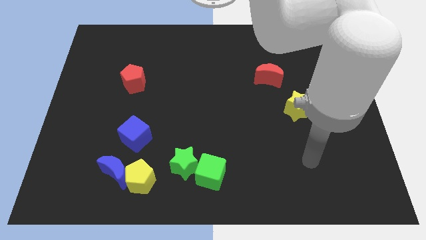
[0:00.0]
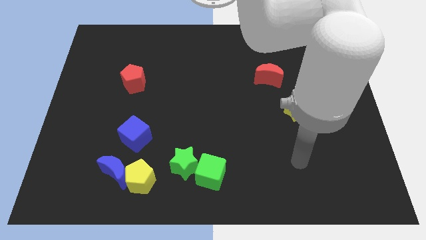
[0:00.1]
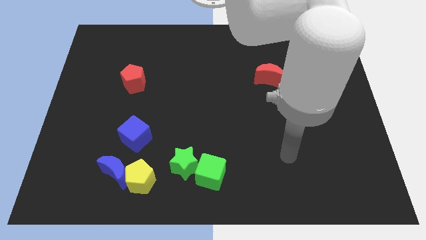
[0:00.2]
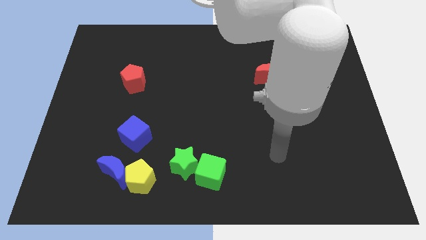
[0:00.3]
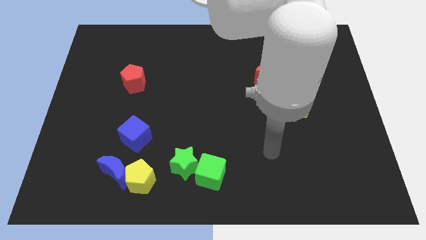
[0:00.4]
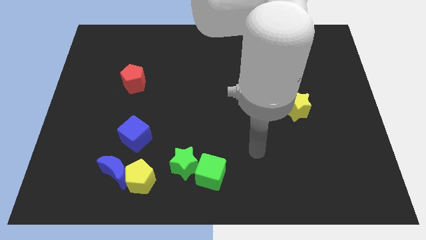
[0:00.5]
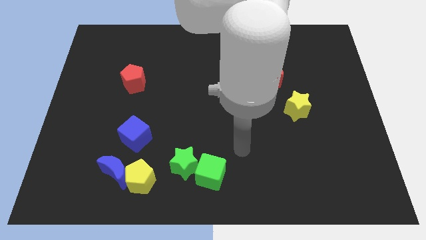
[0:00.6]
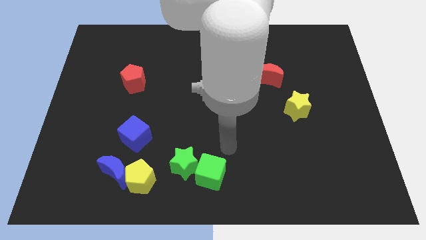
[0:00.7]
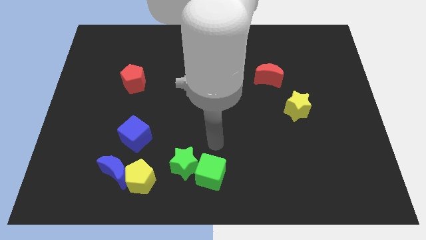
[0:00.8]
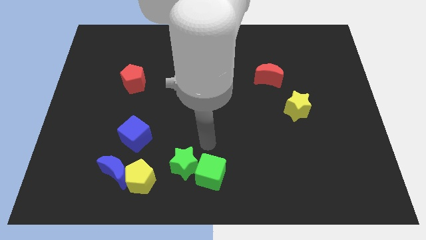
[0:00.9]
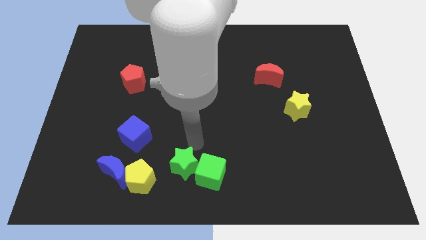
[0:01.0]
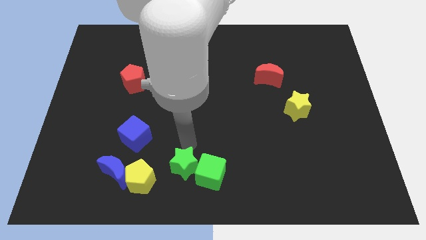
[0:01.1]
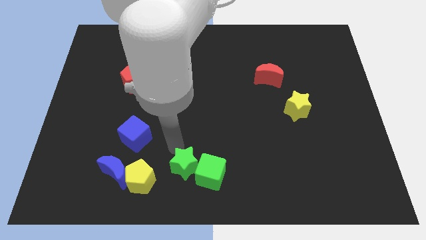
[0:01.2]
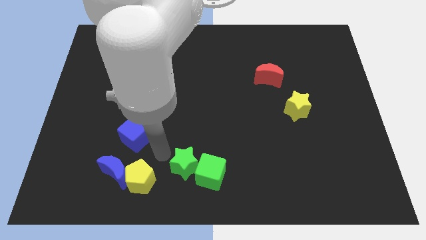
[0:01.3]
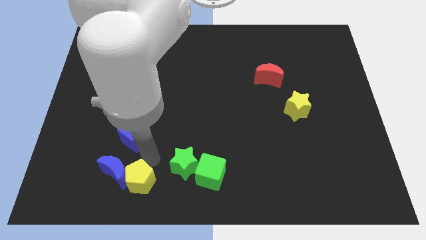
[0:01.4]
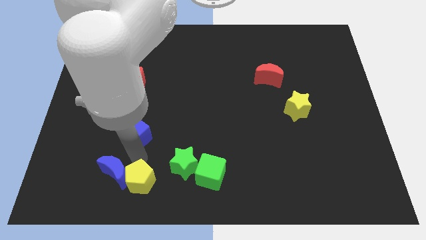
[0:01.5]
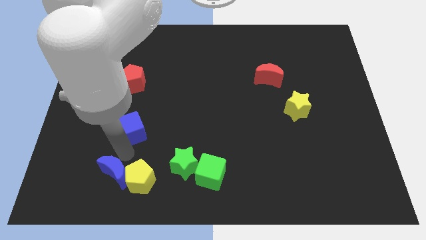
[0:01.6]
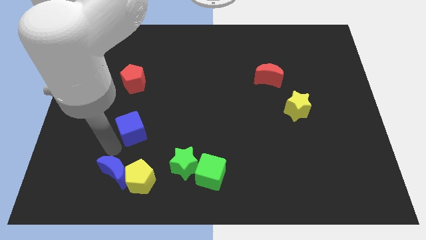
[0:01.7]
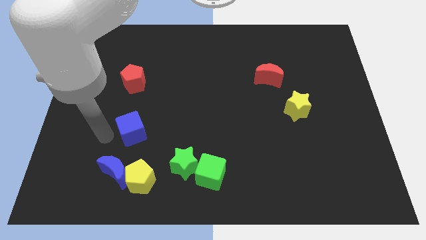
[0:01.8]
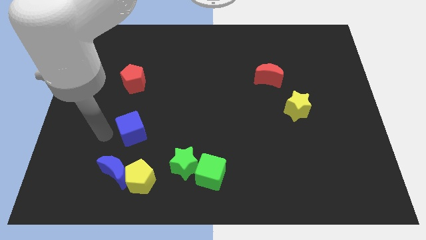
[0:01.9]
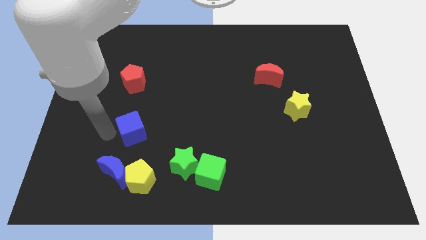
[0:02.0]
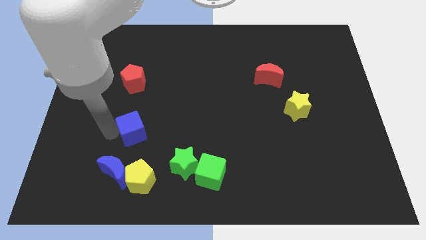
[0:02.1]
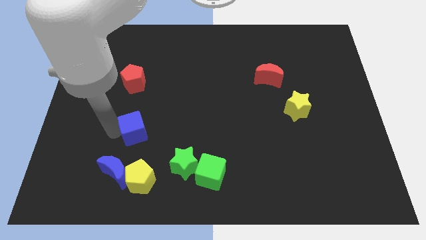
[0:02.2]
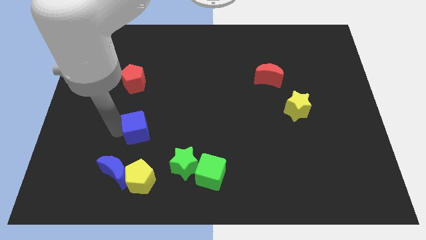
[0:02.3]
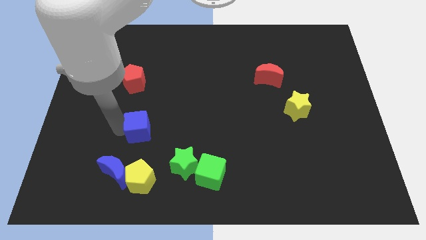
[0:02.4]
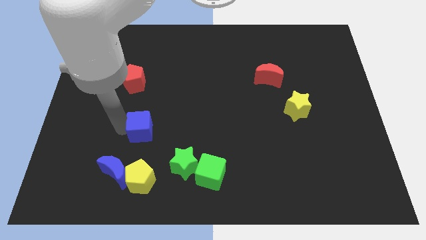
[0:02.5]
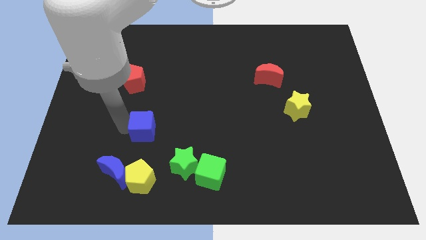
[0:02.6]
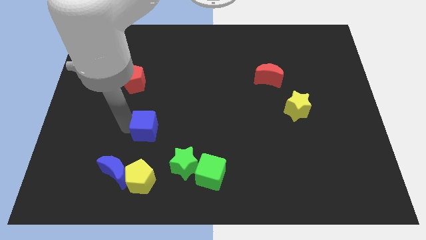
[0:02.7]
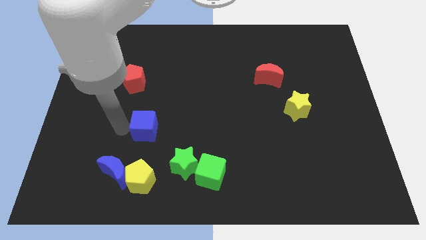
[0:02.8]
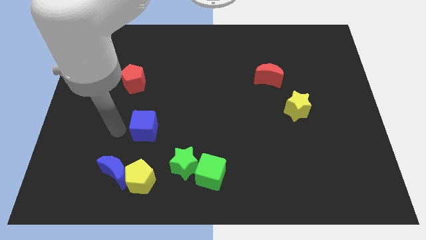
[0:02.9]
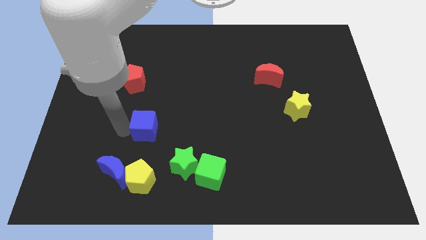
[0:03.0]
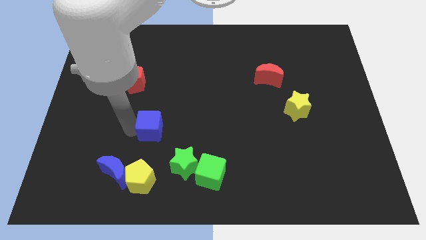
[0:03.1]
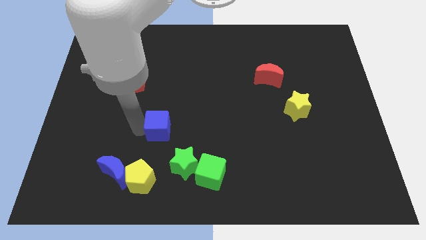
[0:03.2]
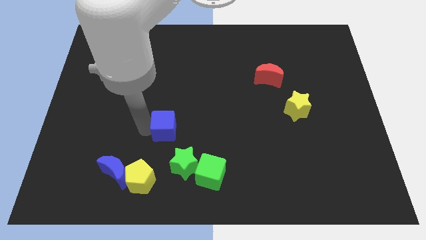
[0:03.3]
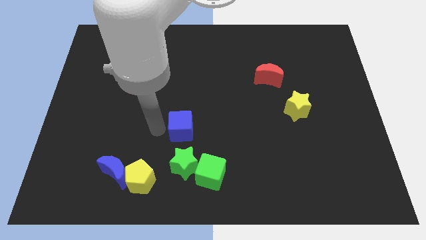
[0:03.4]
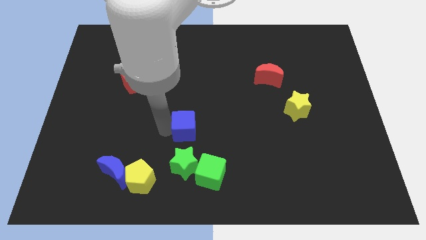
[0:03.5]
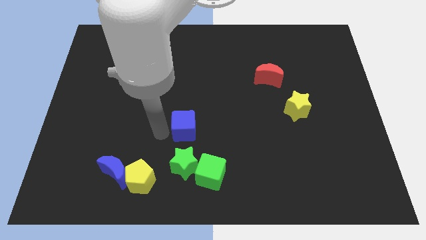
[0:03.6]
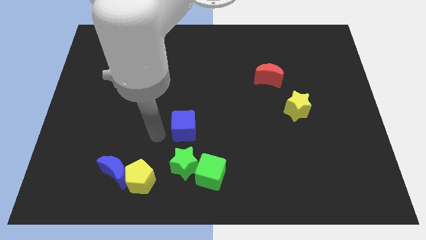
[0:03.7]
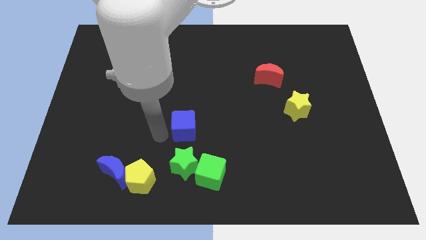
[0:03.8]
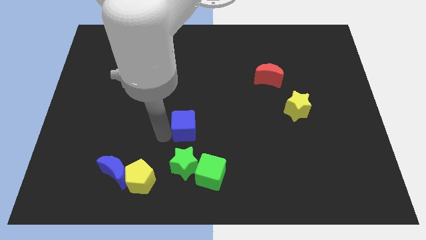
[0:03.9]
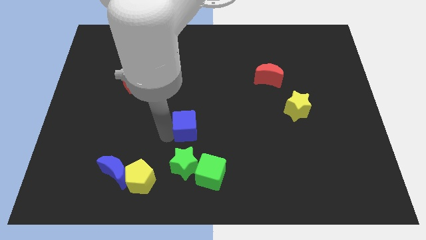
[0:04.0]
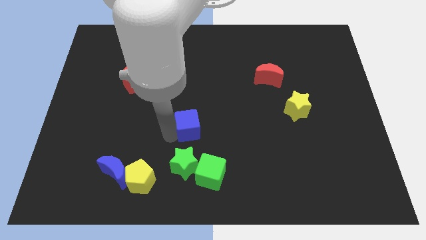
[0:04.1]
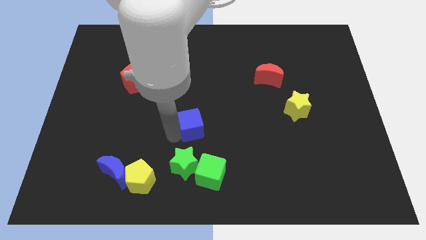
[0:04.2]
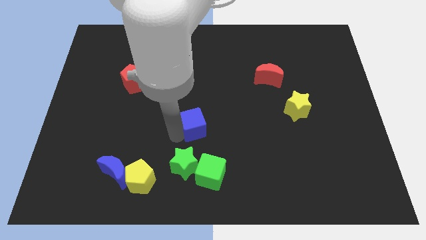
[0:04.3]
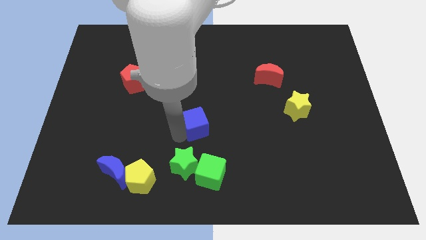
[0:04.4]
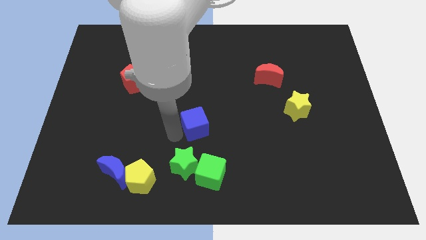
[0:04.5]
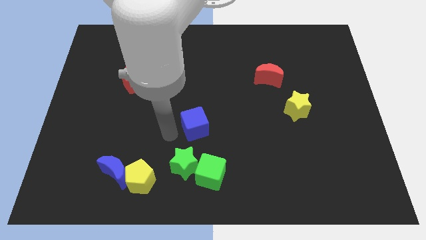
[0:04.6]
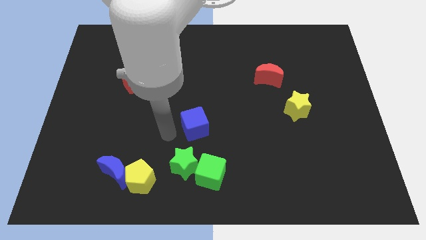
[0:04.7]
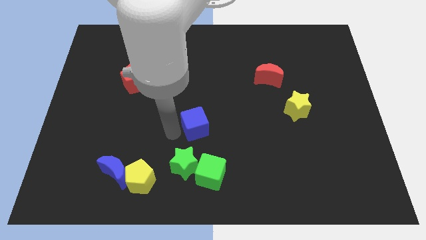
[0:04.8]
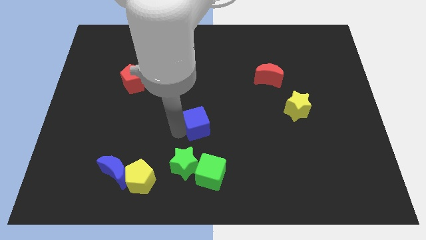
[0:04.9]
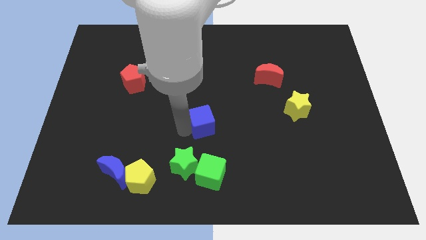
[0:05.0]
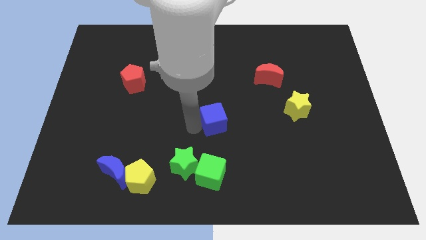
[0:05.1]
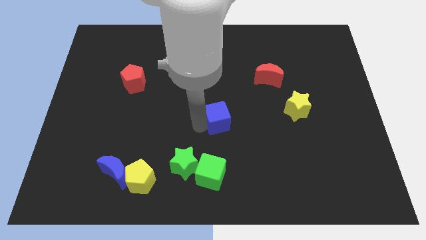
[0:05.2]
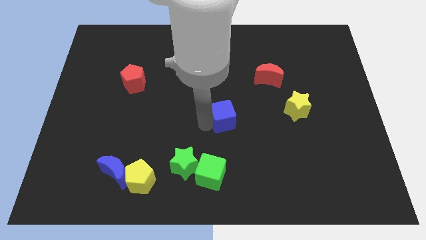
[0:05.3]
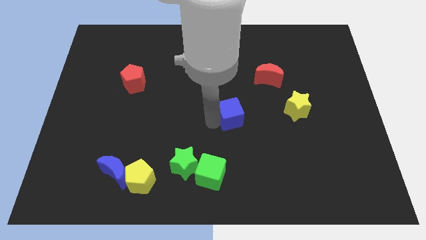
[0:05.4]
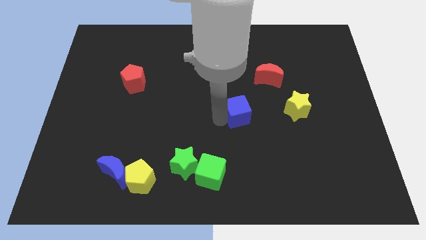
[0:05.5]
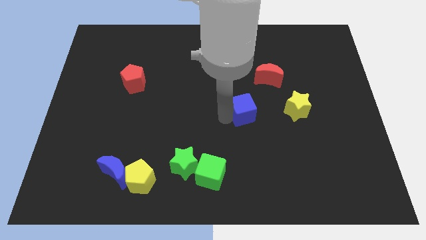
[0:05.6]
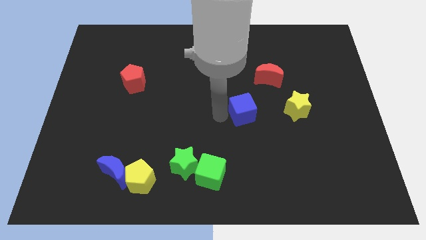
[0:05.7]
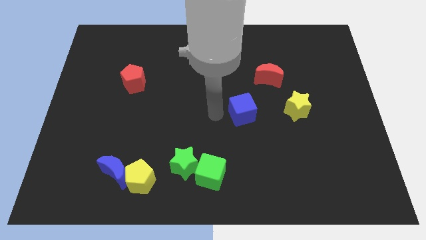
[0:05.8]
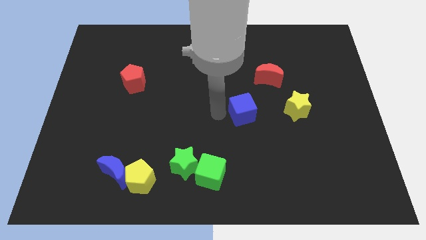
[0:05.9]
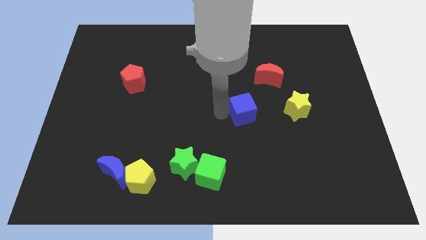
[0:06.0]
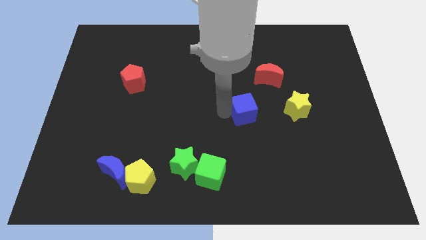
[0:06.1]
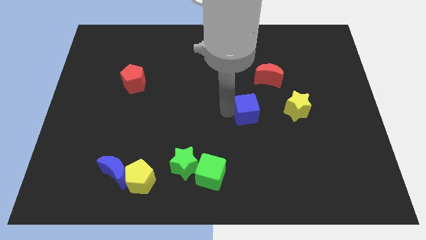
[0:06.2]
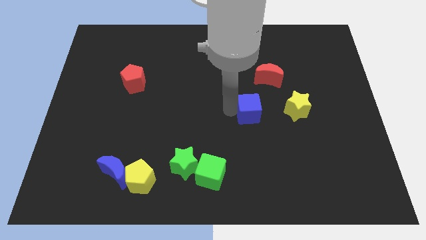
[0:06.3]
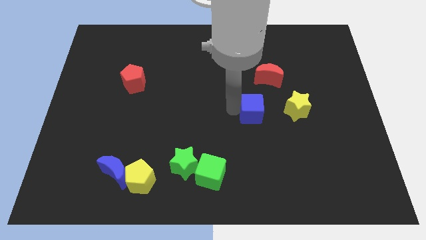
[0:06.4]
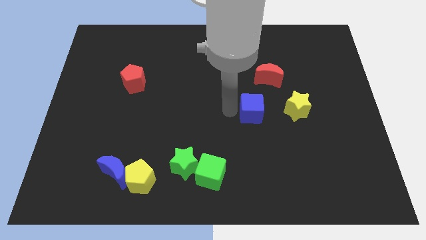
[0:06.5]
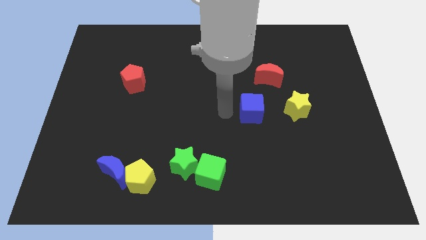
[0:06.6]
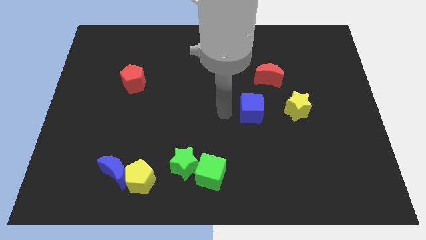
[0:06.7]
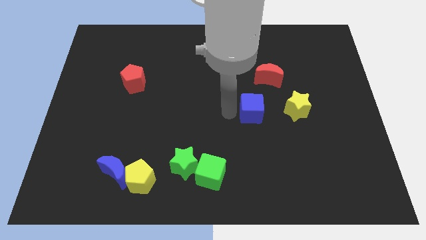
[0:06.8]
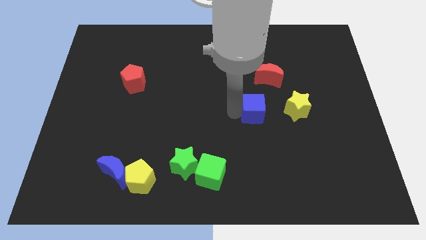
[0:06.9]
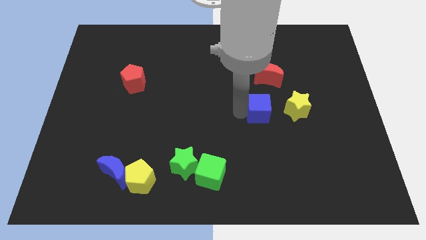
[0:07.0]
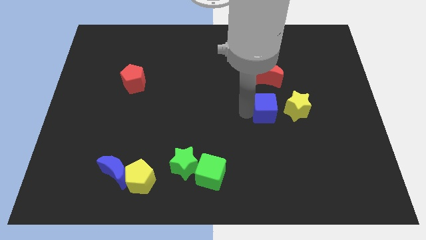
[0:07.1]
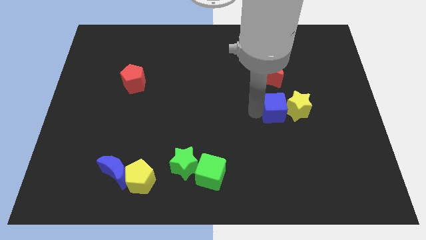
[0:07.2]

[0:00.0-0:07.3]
slide the blue cube towards the yellow star

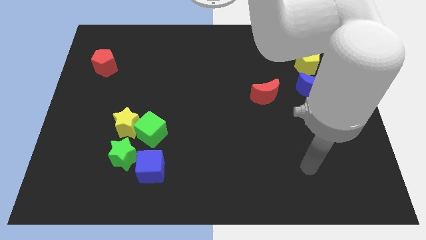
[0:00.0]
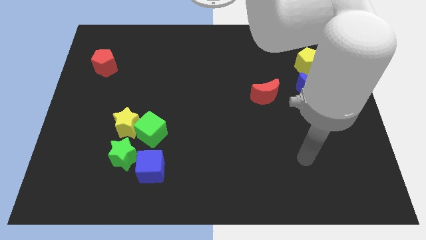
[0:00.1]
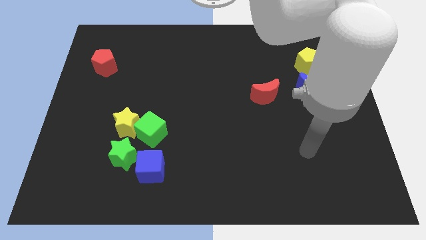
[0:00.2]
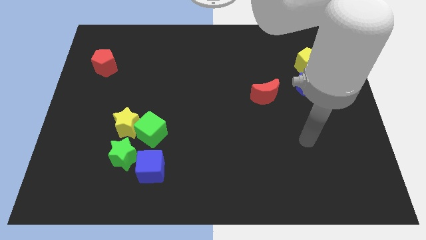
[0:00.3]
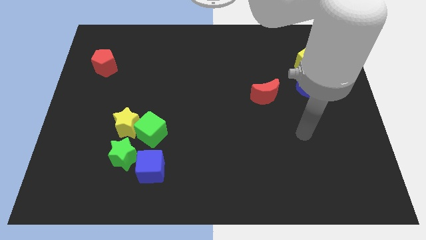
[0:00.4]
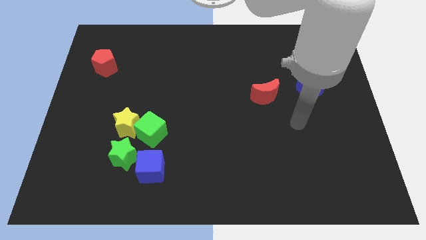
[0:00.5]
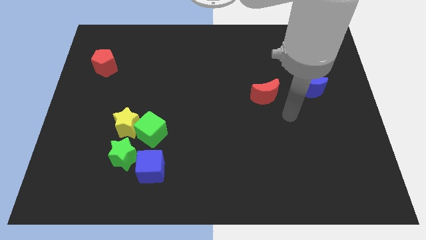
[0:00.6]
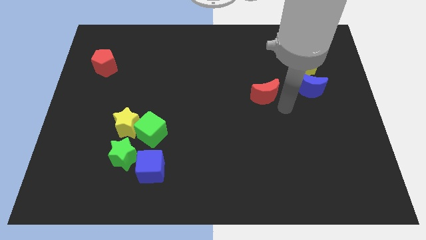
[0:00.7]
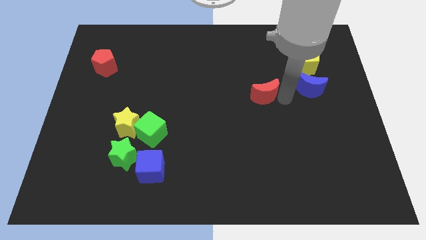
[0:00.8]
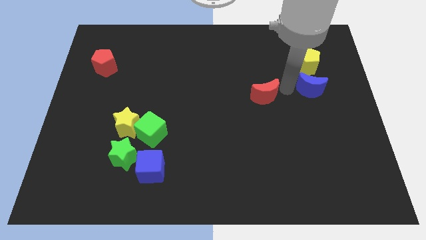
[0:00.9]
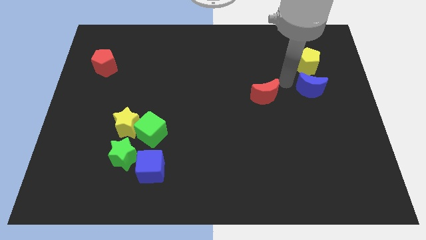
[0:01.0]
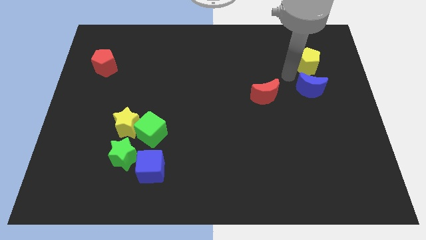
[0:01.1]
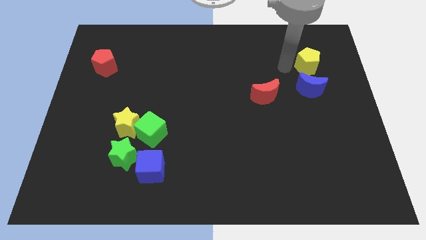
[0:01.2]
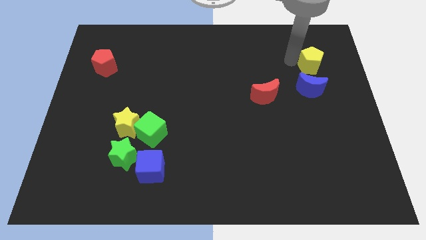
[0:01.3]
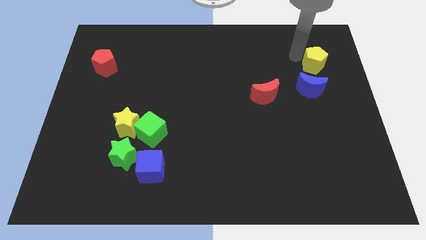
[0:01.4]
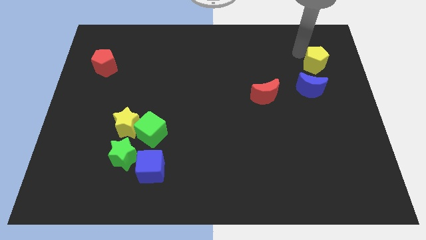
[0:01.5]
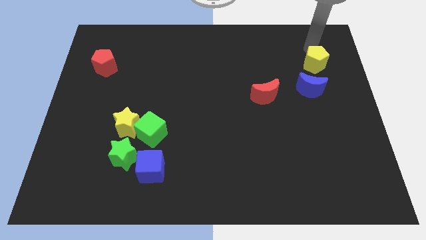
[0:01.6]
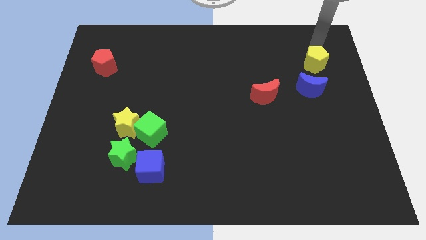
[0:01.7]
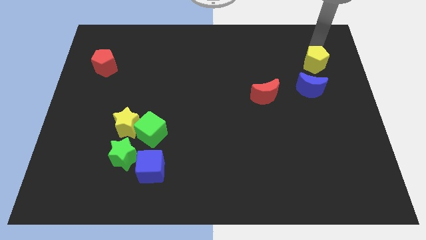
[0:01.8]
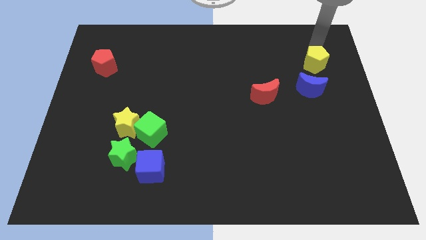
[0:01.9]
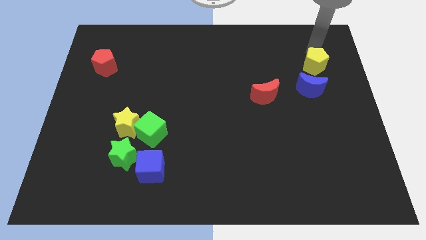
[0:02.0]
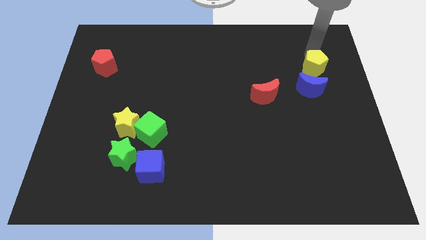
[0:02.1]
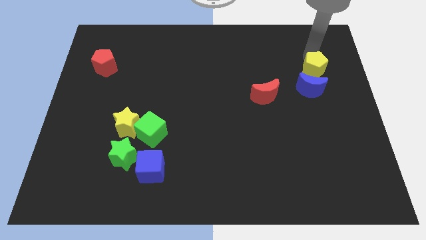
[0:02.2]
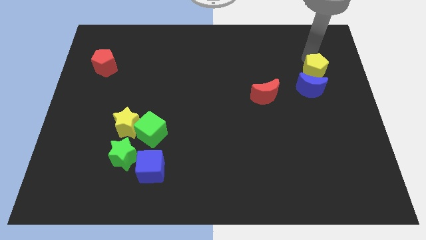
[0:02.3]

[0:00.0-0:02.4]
slide the yellow pentagon towards the blue moon
